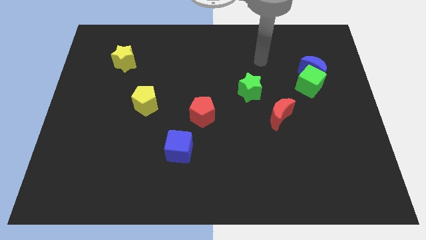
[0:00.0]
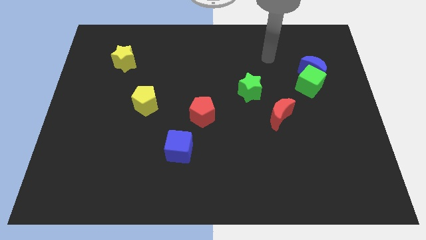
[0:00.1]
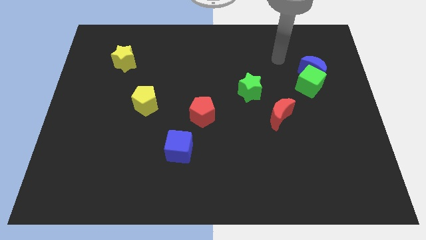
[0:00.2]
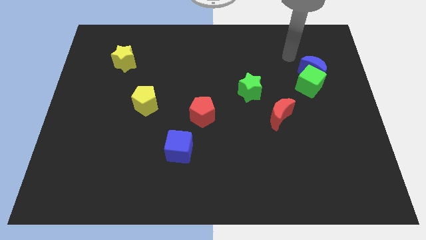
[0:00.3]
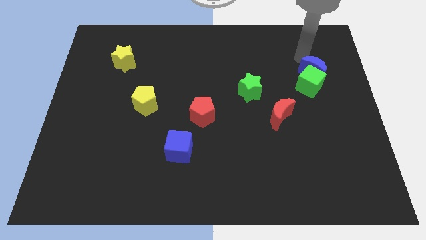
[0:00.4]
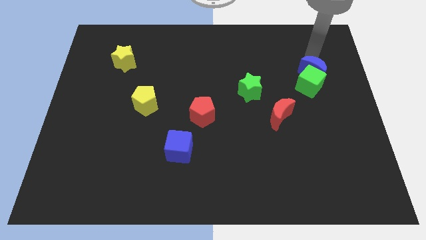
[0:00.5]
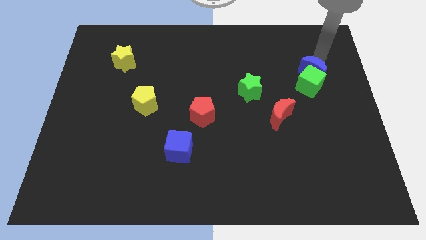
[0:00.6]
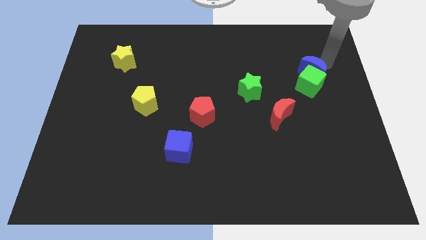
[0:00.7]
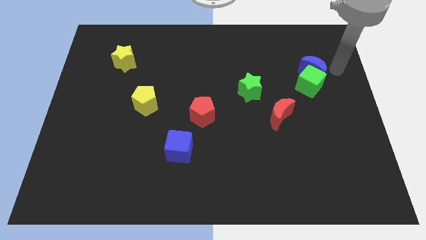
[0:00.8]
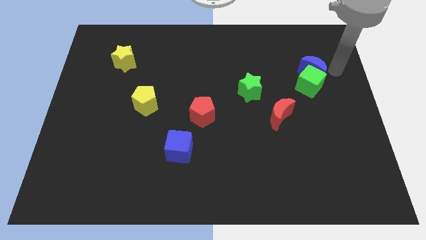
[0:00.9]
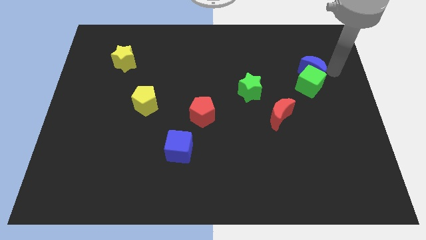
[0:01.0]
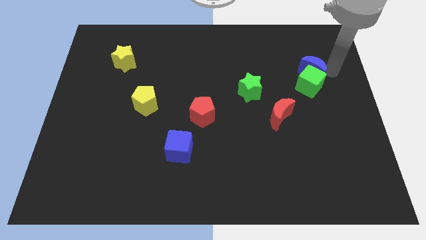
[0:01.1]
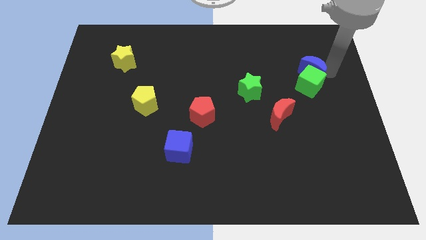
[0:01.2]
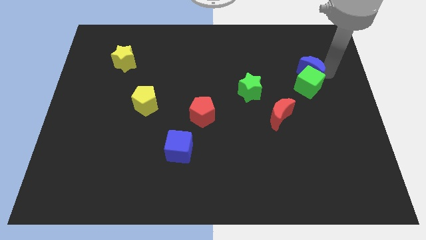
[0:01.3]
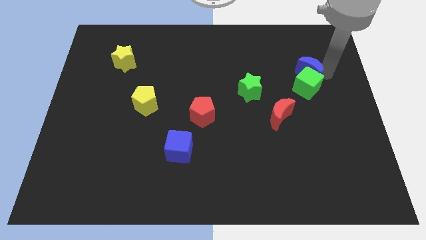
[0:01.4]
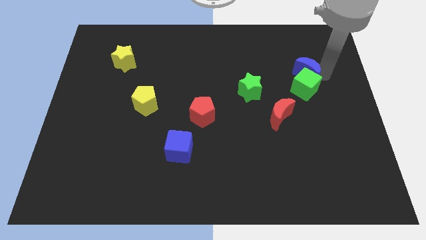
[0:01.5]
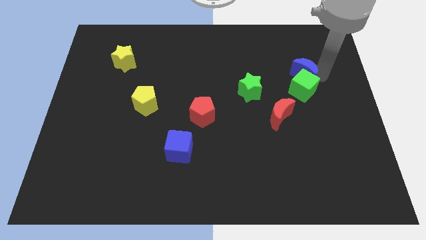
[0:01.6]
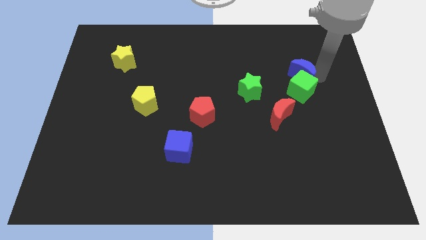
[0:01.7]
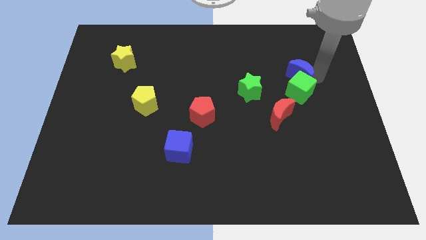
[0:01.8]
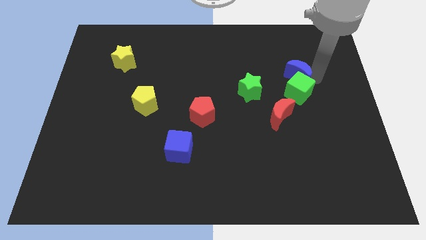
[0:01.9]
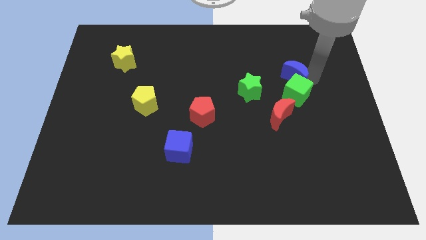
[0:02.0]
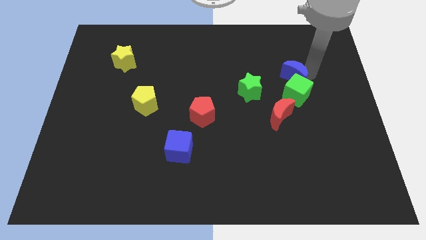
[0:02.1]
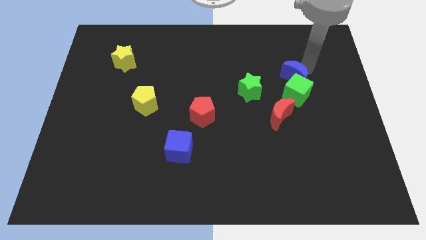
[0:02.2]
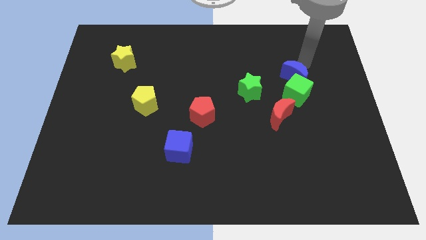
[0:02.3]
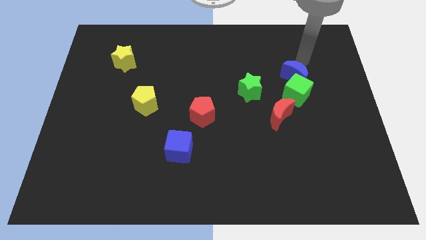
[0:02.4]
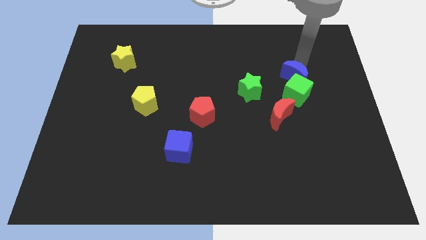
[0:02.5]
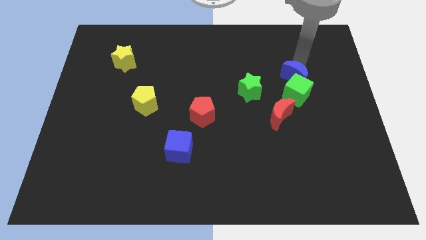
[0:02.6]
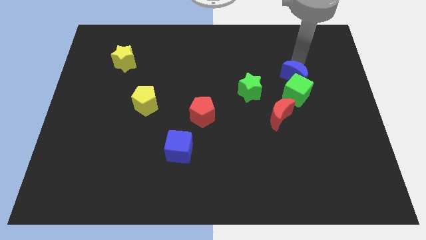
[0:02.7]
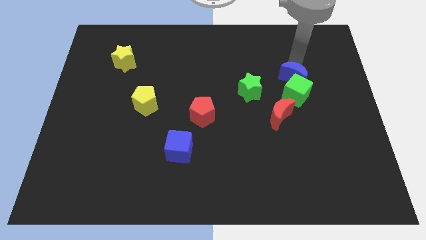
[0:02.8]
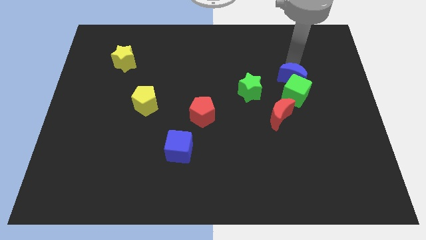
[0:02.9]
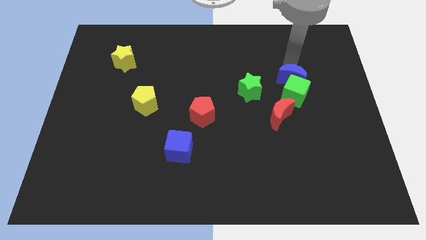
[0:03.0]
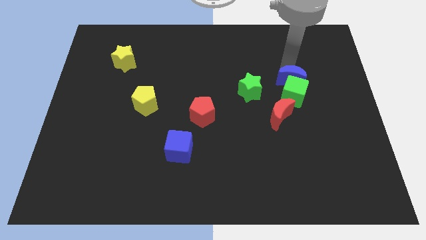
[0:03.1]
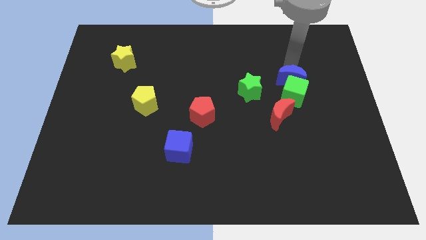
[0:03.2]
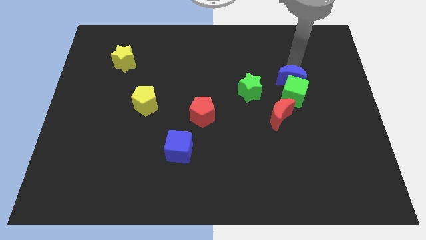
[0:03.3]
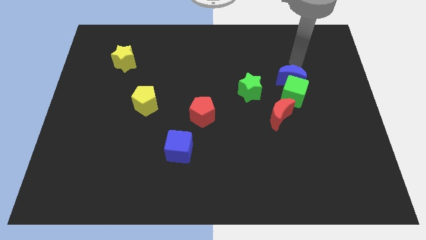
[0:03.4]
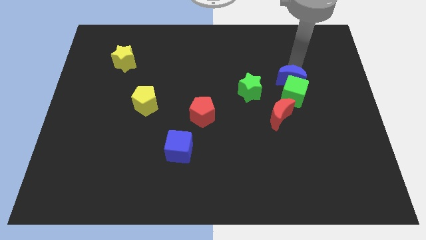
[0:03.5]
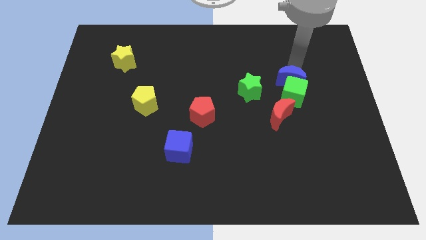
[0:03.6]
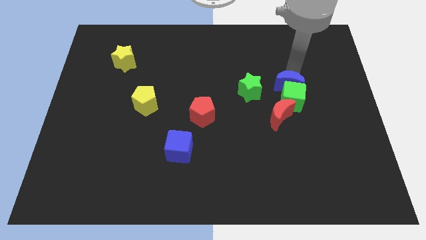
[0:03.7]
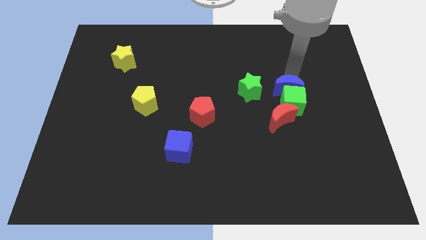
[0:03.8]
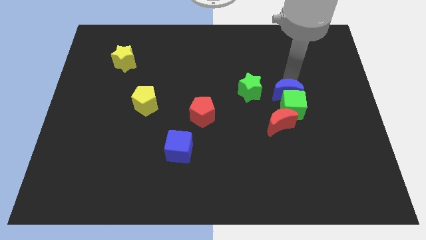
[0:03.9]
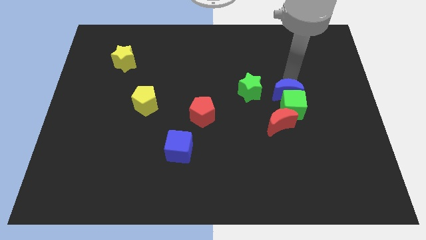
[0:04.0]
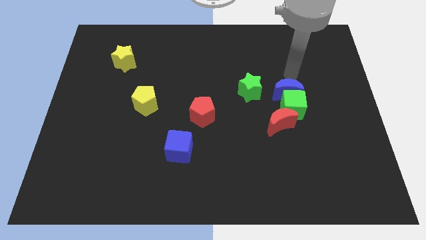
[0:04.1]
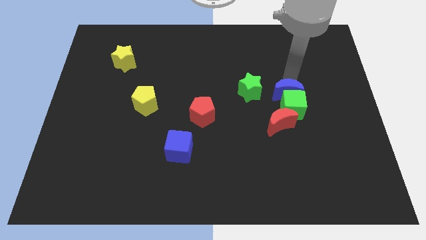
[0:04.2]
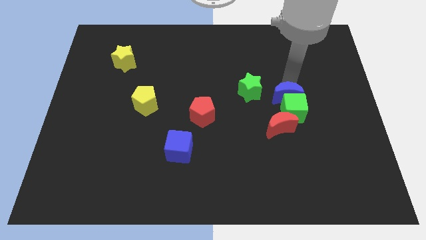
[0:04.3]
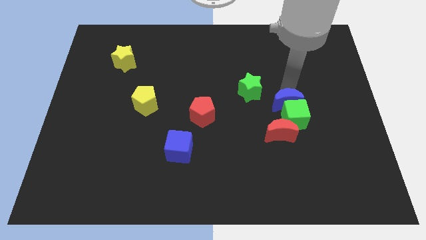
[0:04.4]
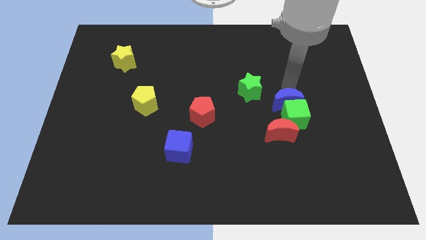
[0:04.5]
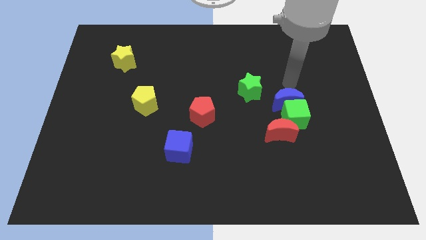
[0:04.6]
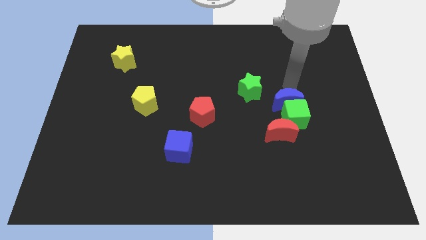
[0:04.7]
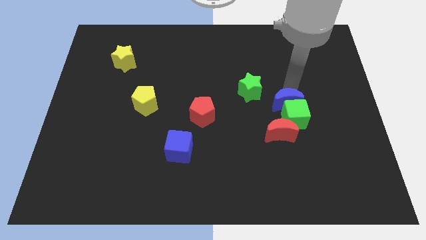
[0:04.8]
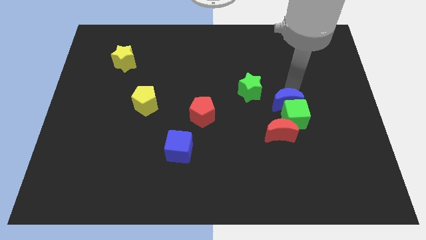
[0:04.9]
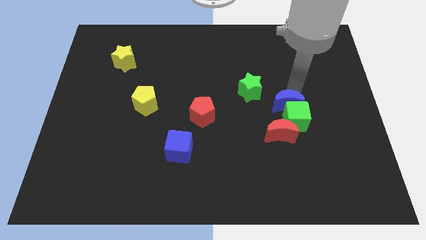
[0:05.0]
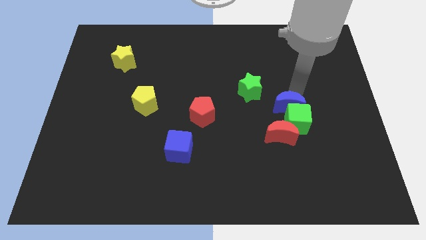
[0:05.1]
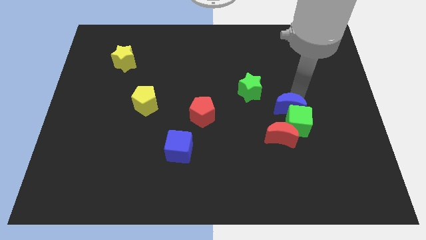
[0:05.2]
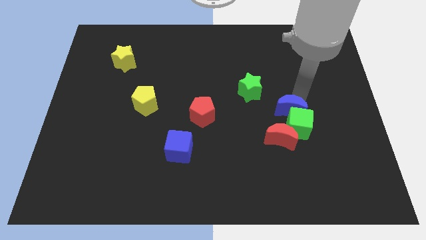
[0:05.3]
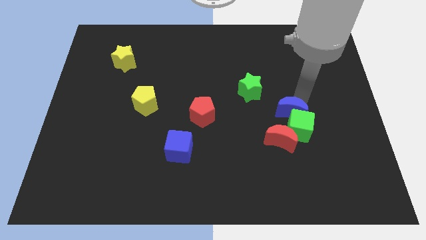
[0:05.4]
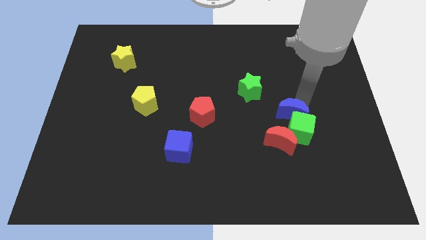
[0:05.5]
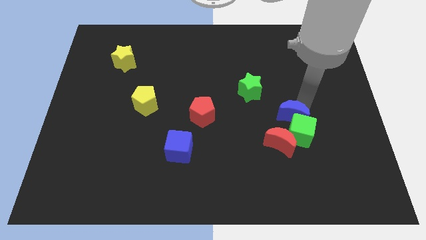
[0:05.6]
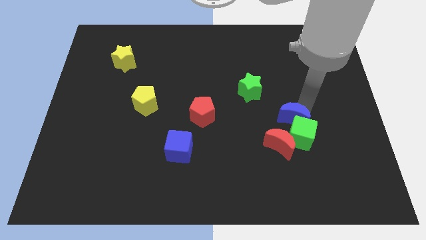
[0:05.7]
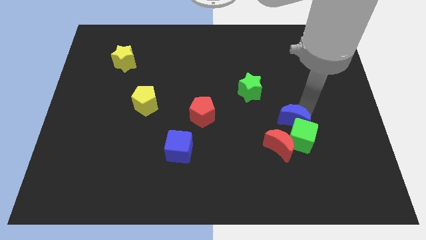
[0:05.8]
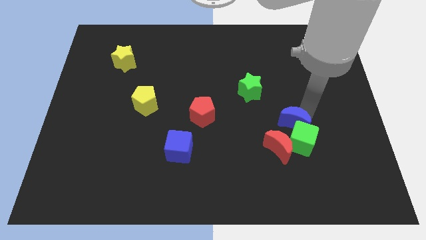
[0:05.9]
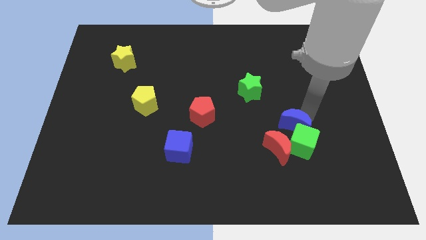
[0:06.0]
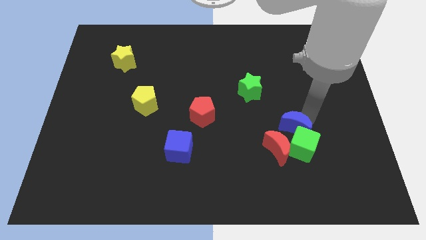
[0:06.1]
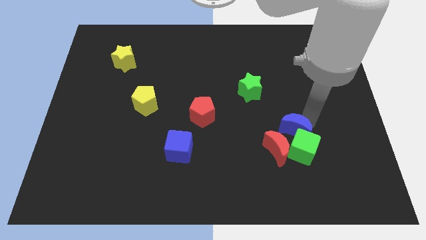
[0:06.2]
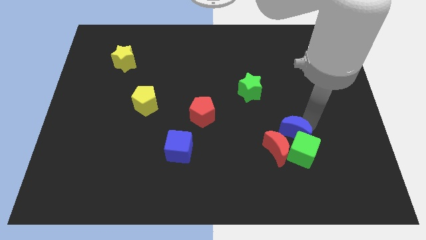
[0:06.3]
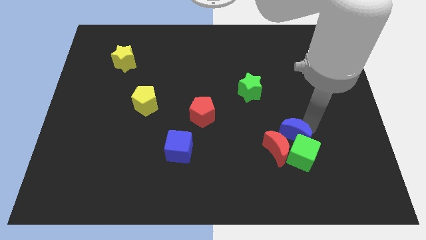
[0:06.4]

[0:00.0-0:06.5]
move the blue moon close to the red moon

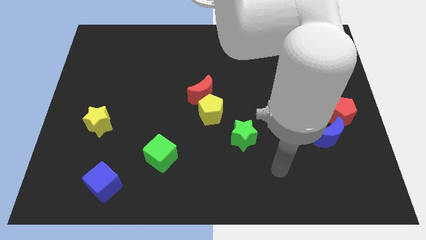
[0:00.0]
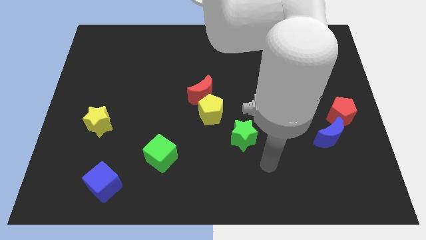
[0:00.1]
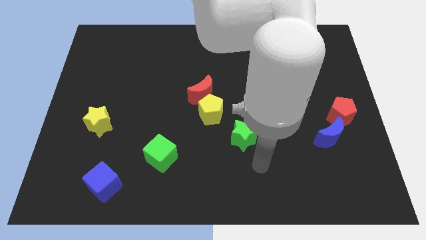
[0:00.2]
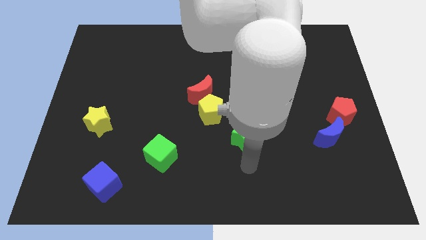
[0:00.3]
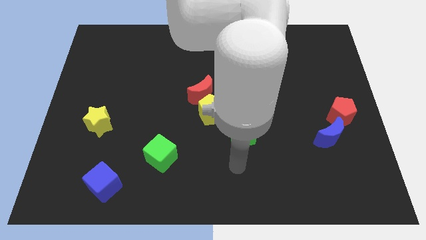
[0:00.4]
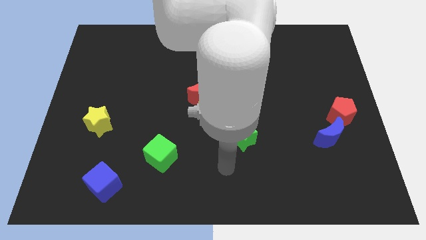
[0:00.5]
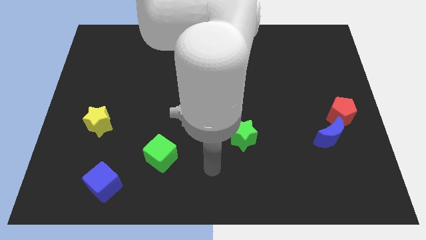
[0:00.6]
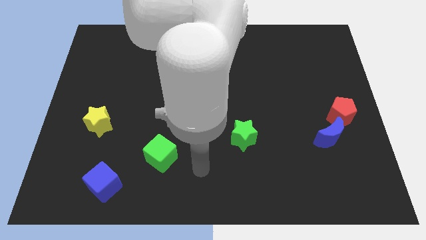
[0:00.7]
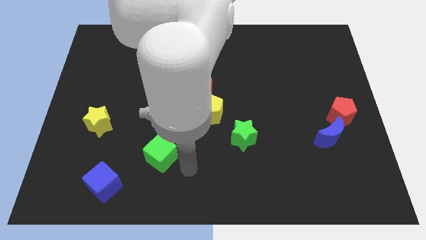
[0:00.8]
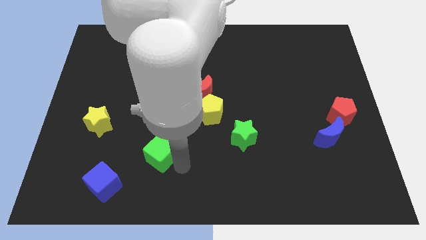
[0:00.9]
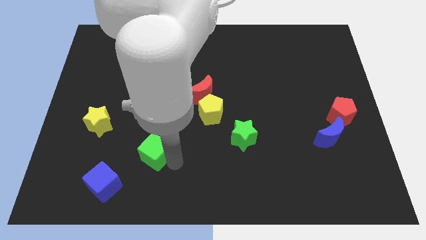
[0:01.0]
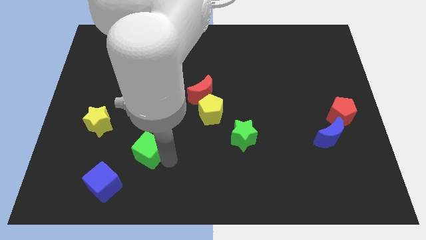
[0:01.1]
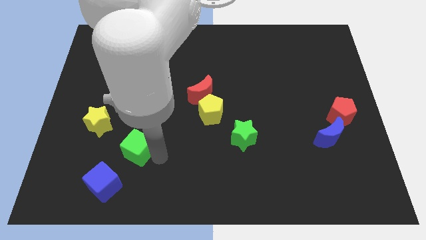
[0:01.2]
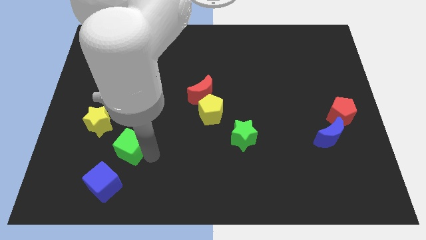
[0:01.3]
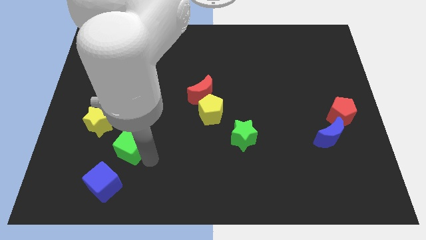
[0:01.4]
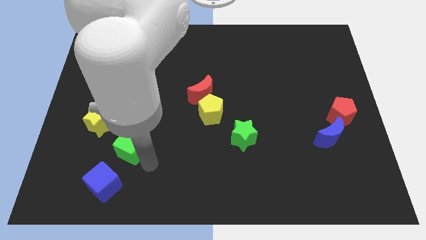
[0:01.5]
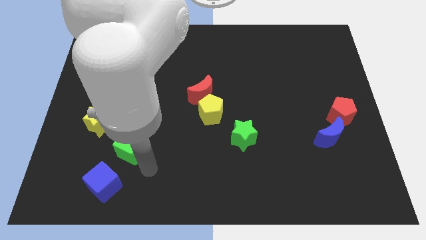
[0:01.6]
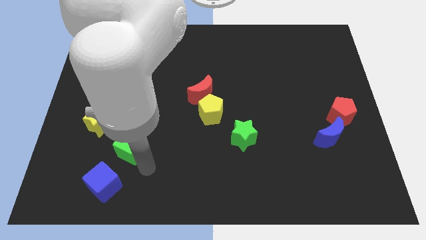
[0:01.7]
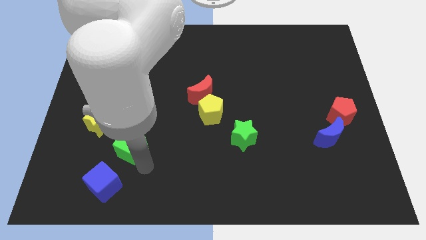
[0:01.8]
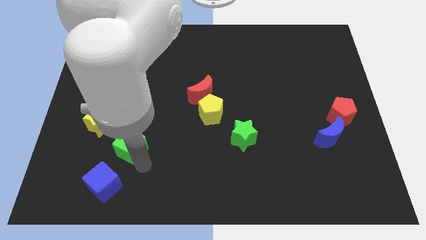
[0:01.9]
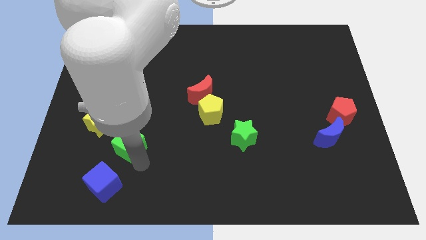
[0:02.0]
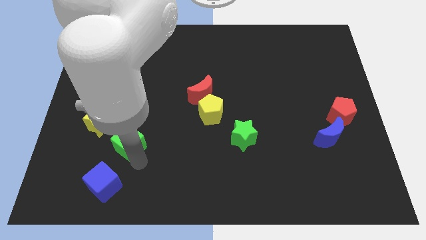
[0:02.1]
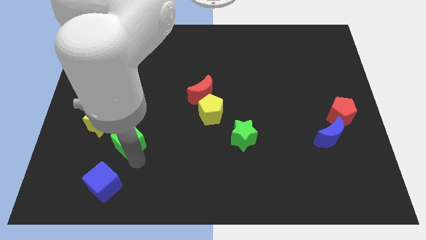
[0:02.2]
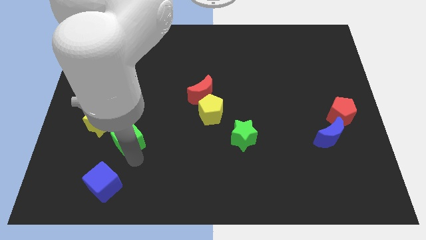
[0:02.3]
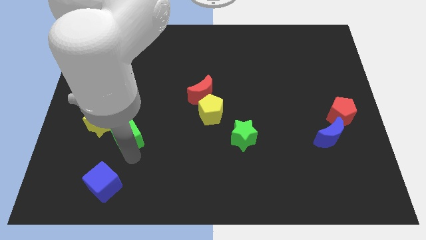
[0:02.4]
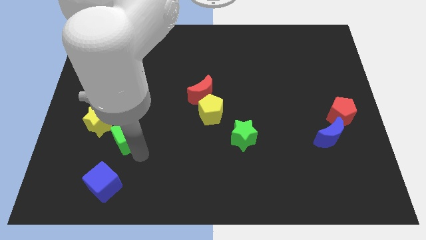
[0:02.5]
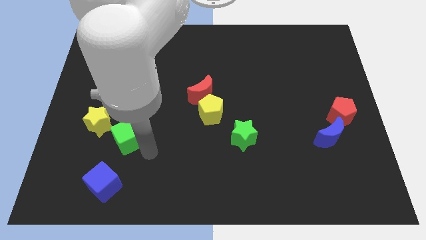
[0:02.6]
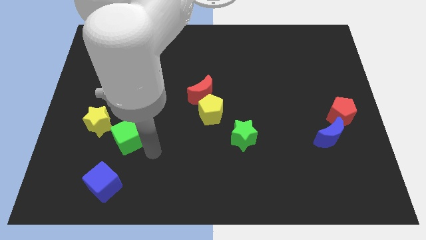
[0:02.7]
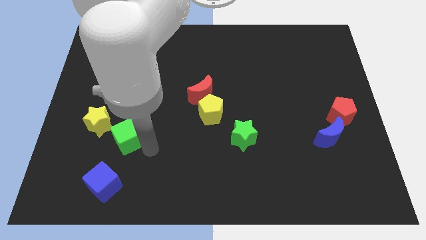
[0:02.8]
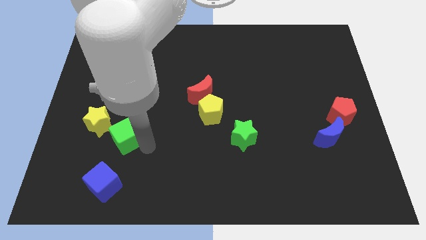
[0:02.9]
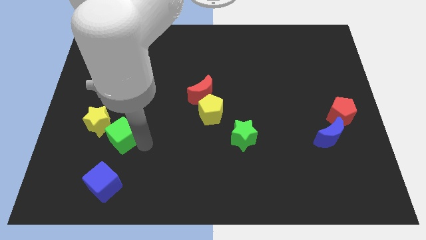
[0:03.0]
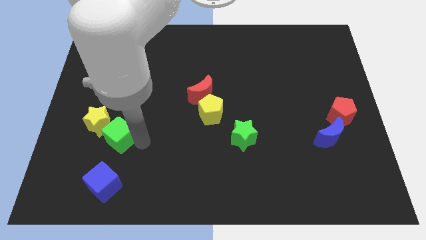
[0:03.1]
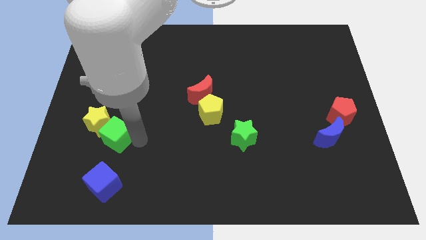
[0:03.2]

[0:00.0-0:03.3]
move the green cube towards the yellow star
